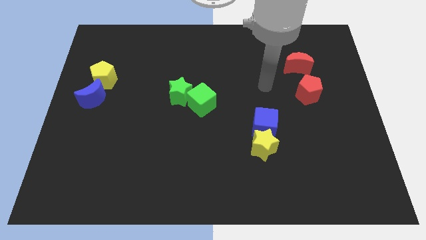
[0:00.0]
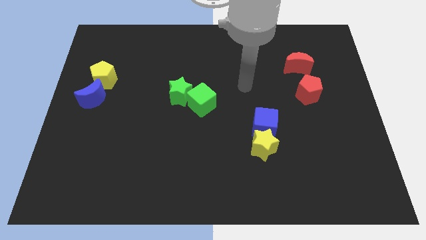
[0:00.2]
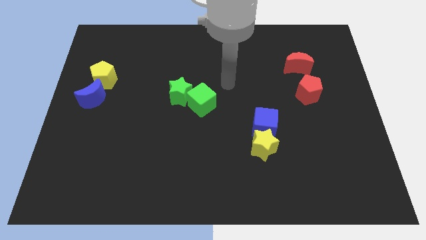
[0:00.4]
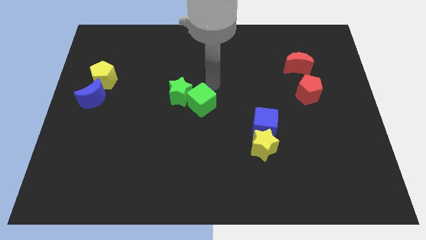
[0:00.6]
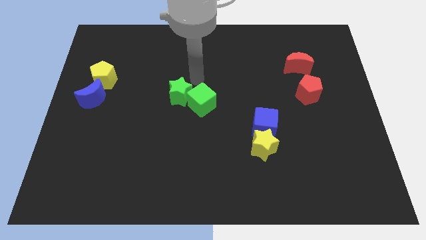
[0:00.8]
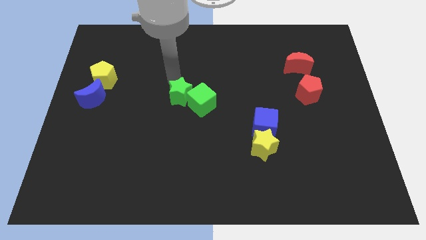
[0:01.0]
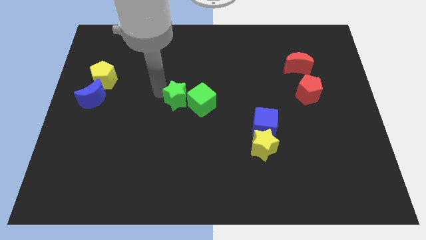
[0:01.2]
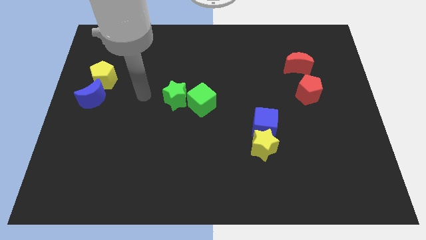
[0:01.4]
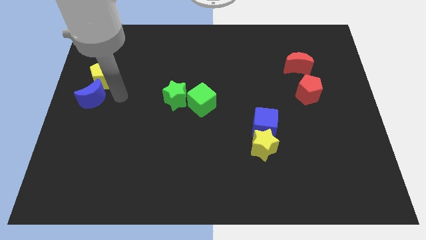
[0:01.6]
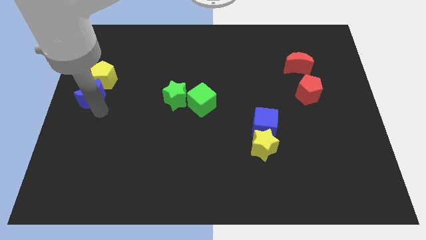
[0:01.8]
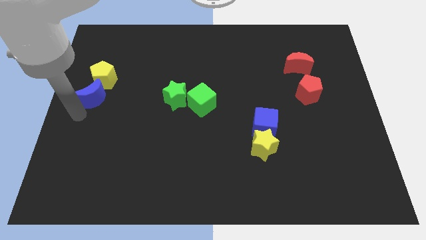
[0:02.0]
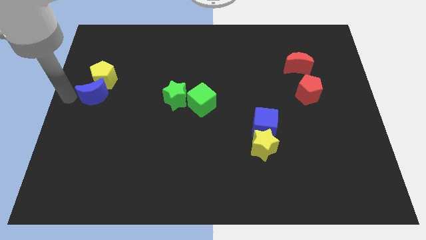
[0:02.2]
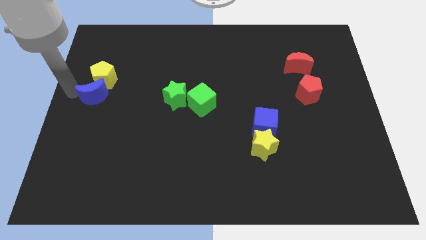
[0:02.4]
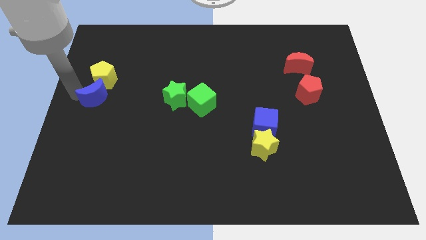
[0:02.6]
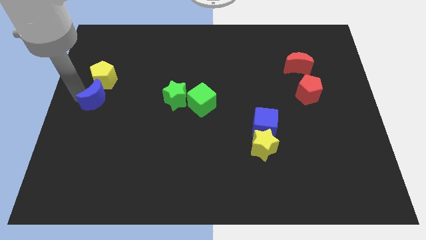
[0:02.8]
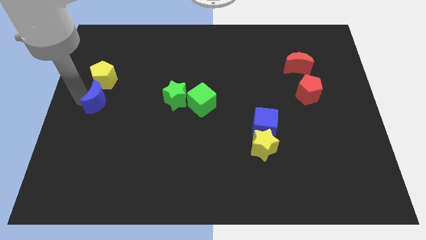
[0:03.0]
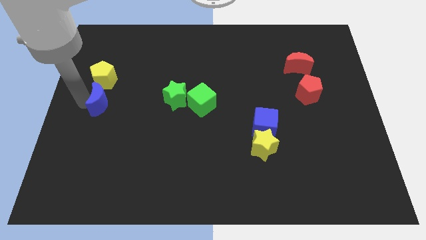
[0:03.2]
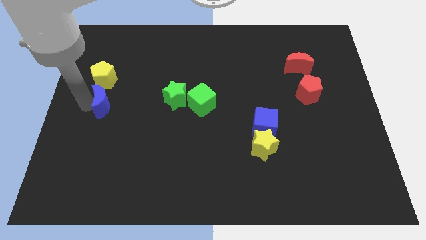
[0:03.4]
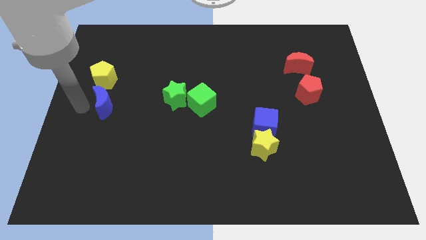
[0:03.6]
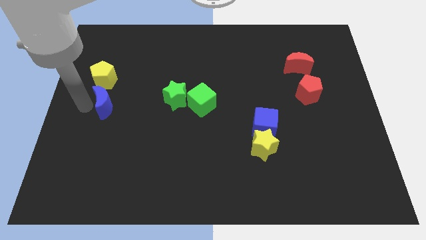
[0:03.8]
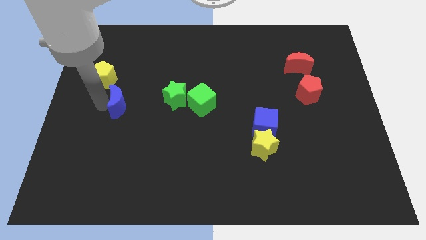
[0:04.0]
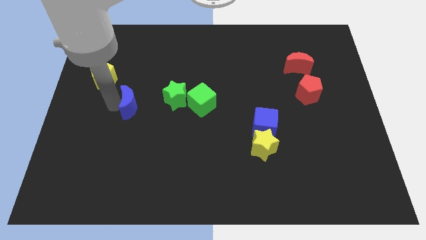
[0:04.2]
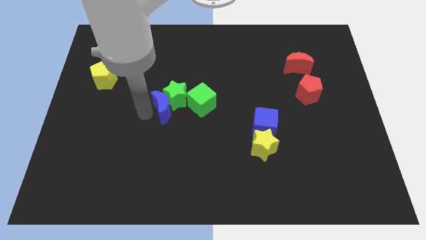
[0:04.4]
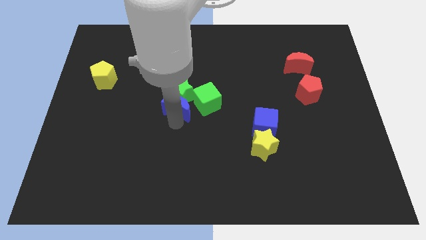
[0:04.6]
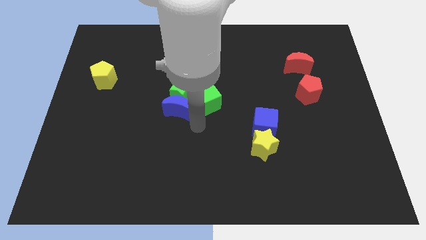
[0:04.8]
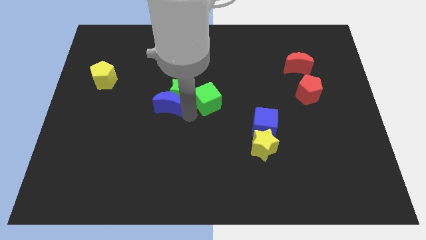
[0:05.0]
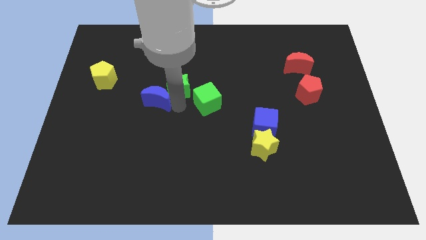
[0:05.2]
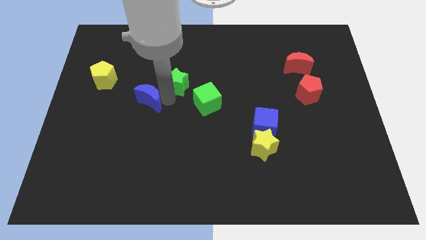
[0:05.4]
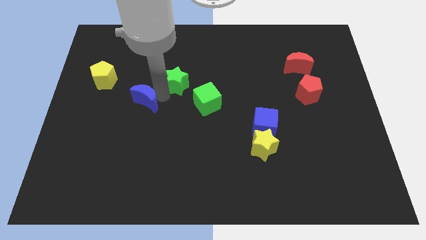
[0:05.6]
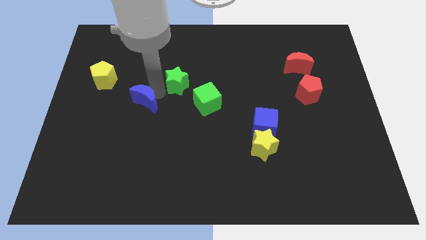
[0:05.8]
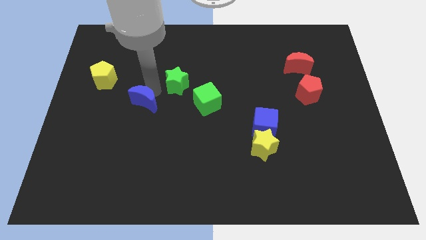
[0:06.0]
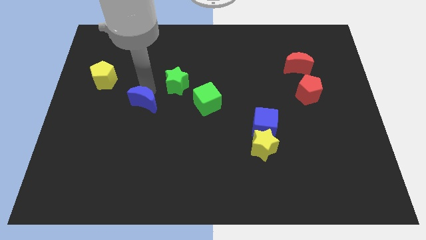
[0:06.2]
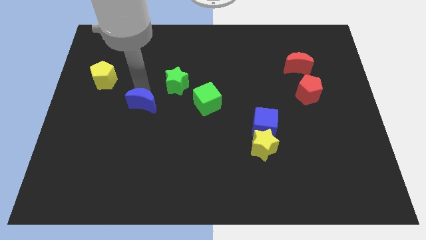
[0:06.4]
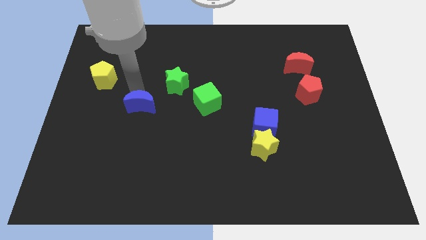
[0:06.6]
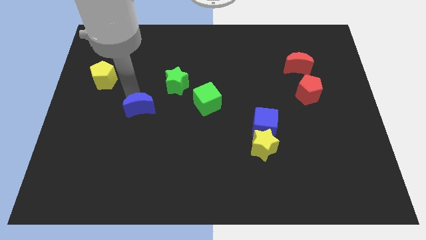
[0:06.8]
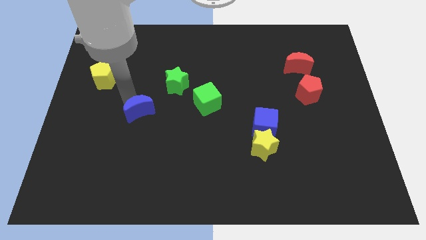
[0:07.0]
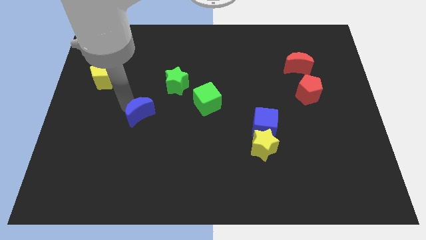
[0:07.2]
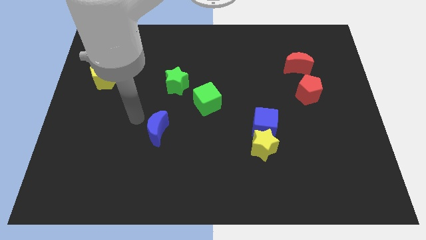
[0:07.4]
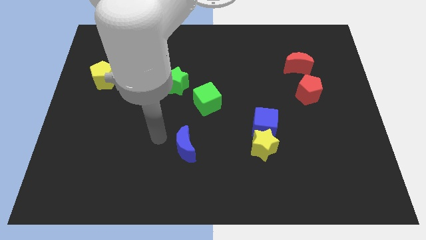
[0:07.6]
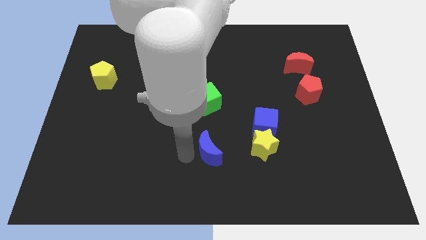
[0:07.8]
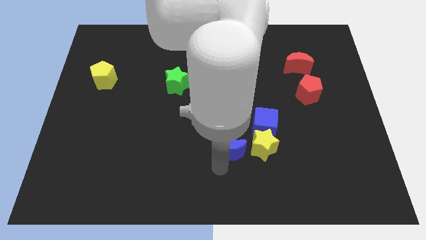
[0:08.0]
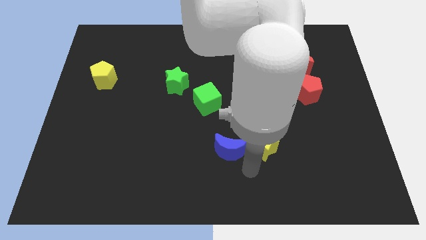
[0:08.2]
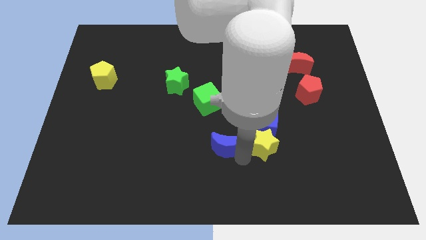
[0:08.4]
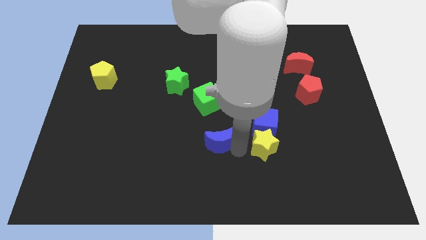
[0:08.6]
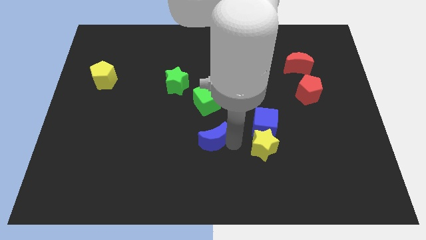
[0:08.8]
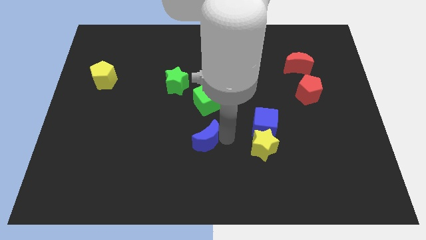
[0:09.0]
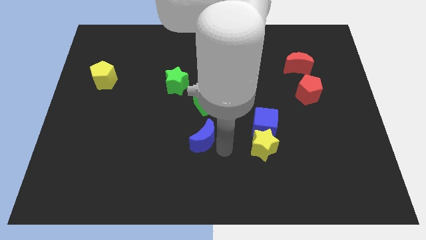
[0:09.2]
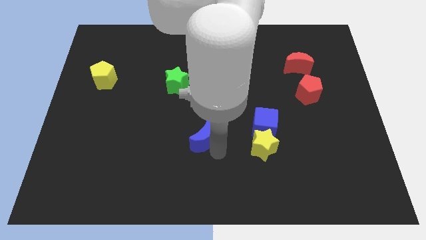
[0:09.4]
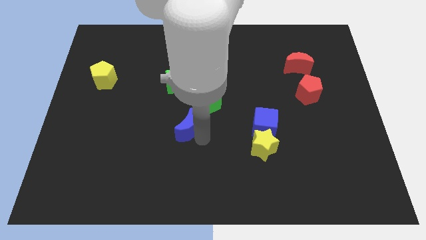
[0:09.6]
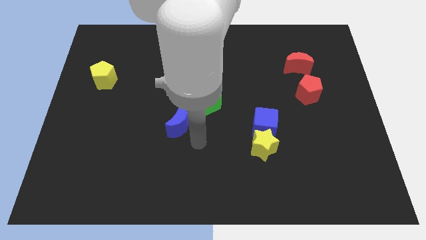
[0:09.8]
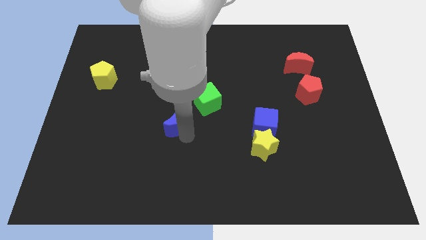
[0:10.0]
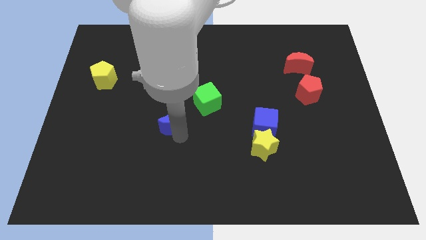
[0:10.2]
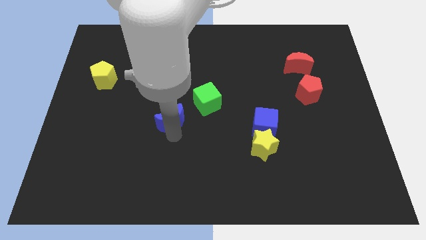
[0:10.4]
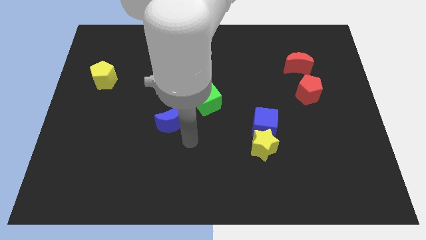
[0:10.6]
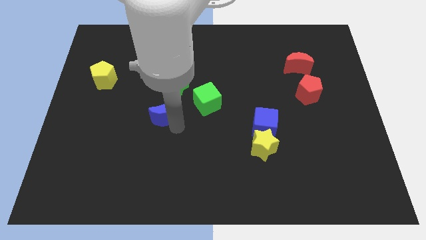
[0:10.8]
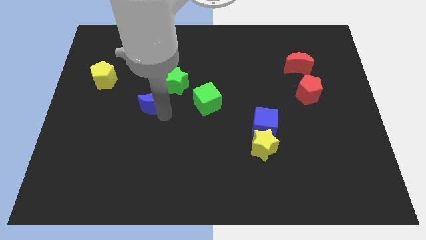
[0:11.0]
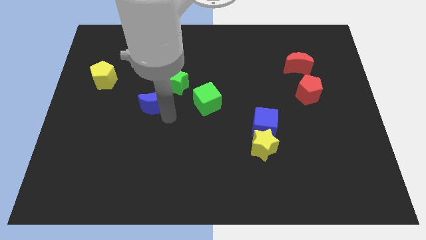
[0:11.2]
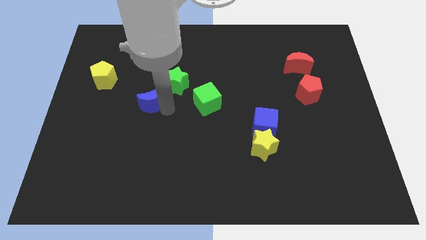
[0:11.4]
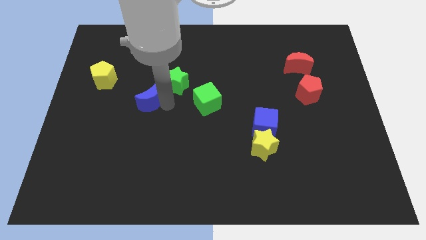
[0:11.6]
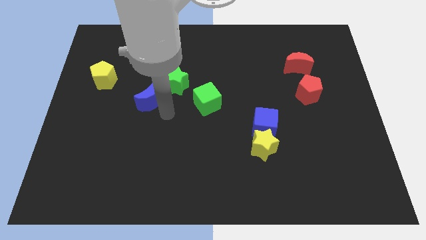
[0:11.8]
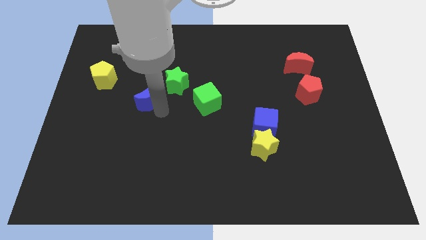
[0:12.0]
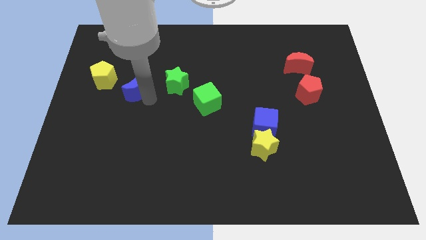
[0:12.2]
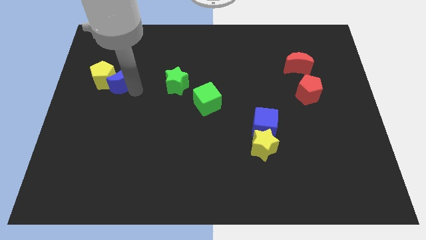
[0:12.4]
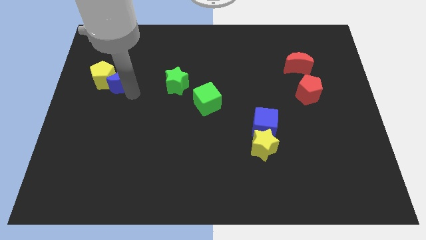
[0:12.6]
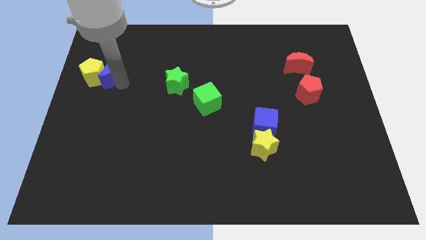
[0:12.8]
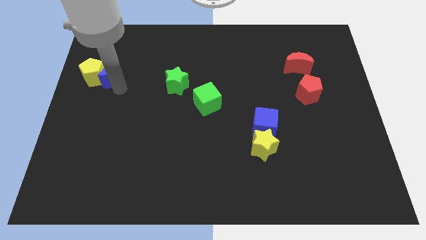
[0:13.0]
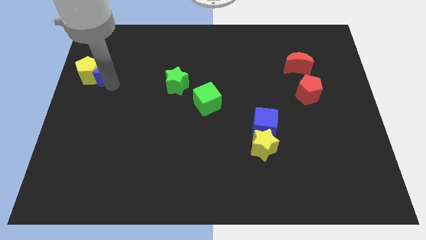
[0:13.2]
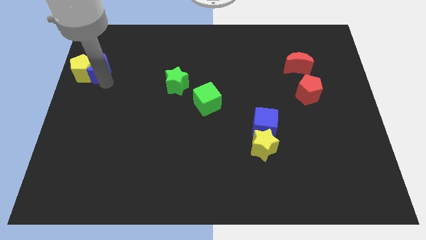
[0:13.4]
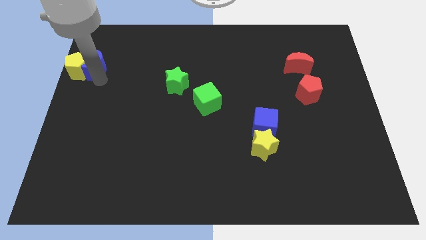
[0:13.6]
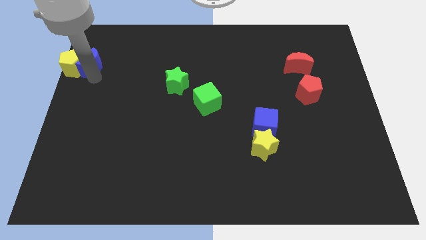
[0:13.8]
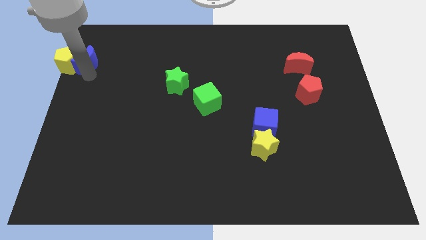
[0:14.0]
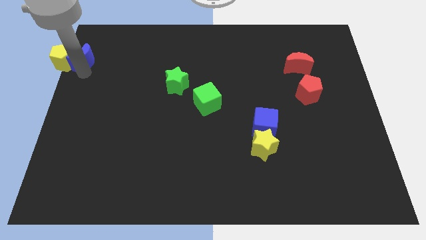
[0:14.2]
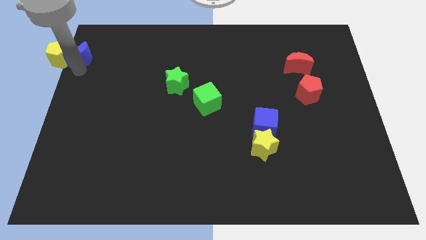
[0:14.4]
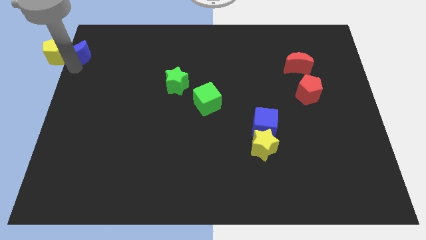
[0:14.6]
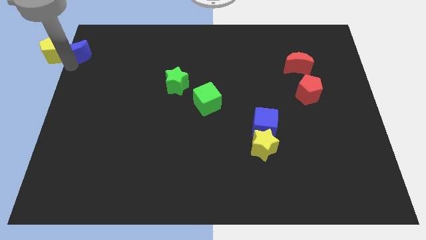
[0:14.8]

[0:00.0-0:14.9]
move the blue moon to the top left of the board
